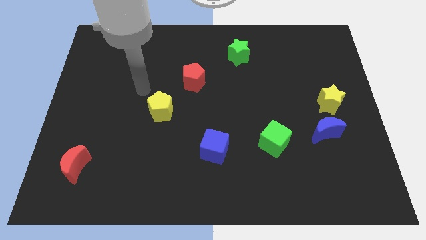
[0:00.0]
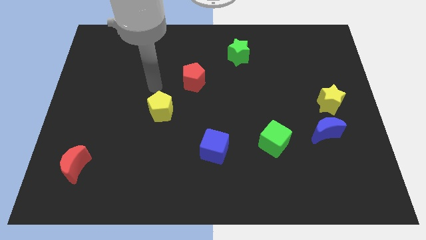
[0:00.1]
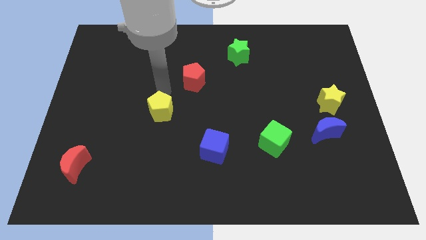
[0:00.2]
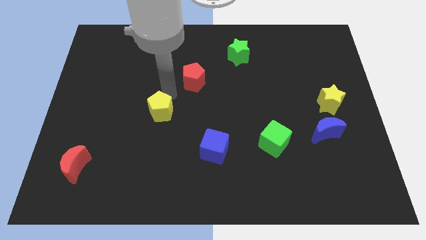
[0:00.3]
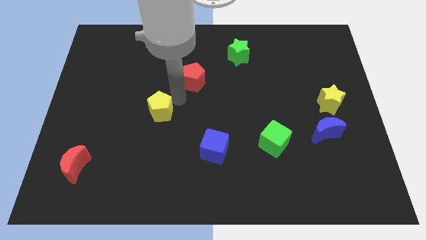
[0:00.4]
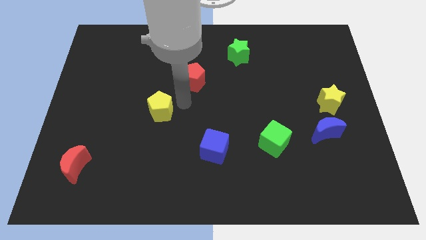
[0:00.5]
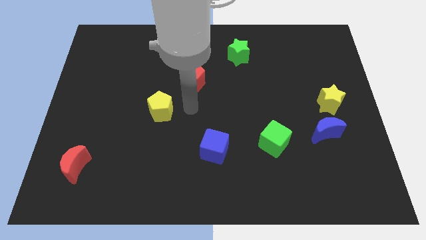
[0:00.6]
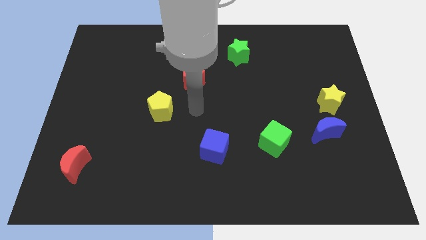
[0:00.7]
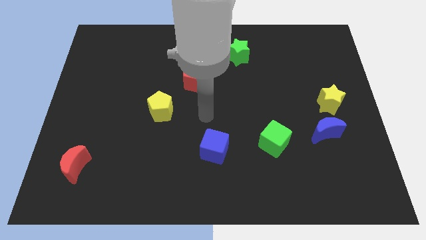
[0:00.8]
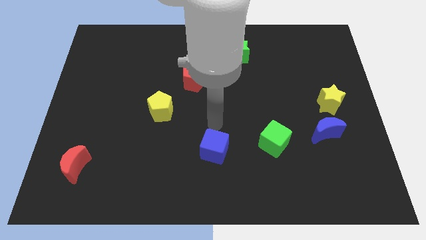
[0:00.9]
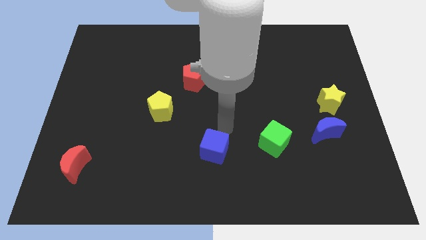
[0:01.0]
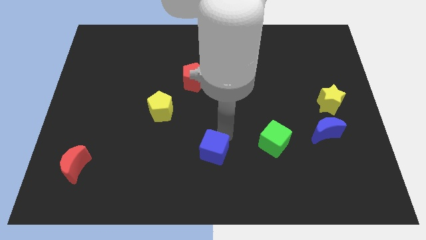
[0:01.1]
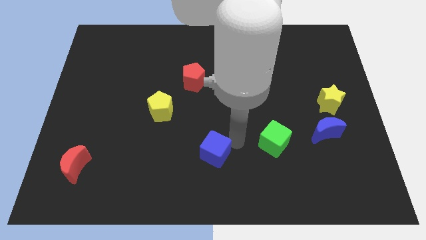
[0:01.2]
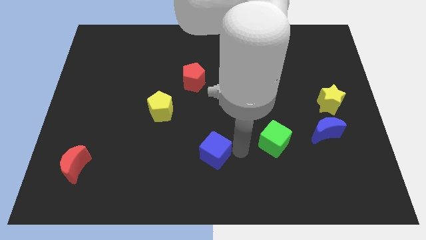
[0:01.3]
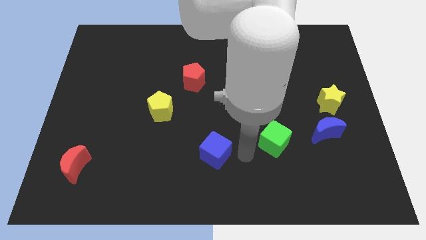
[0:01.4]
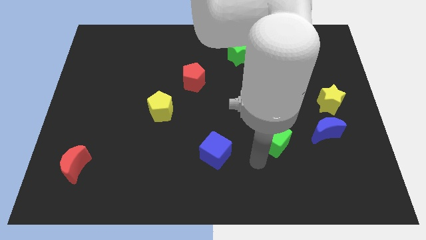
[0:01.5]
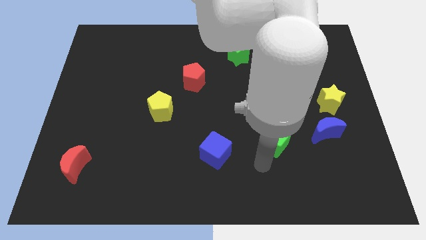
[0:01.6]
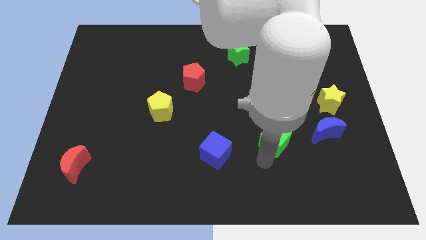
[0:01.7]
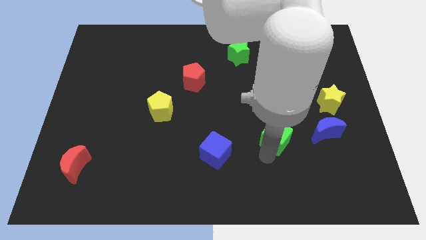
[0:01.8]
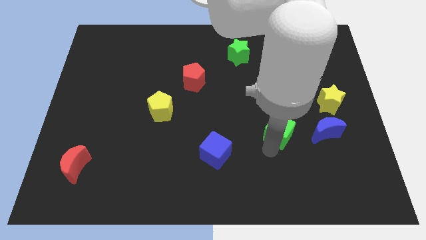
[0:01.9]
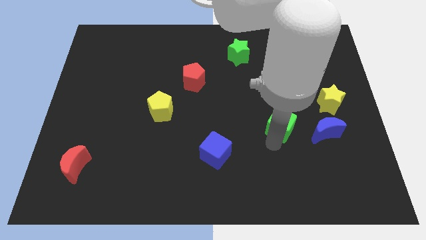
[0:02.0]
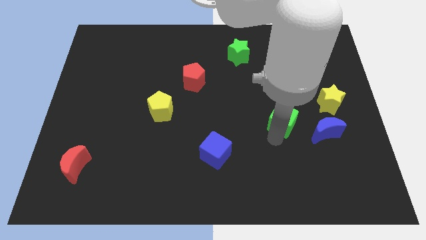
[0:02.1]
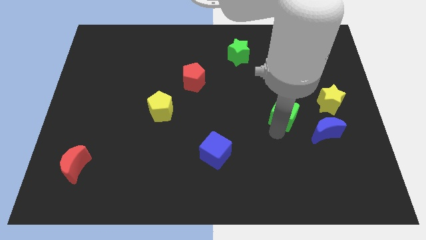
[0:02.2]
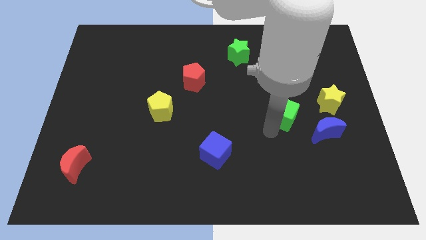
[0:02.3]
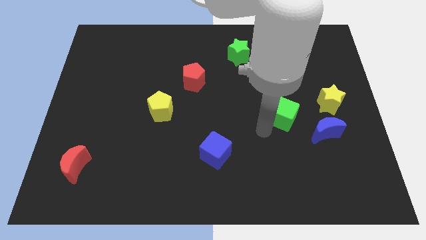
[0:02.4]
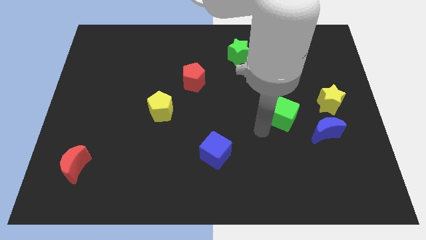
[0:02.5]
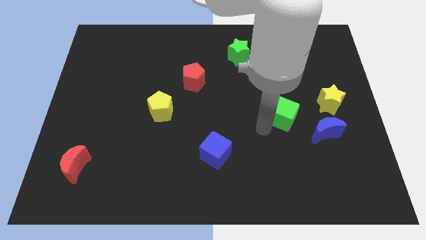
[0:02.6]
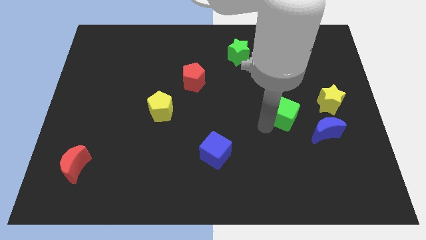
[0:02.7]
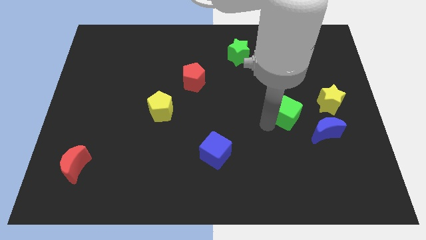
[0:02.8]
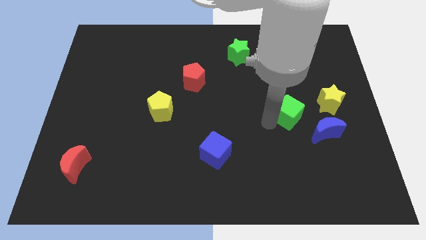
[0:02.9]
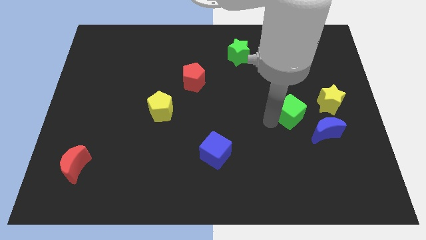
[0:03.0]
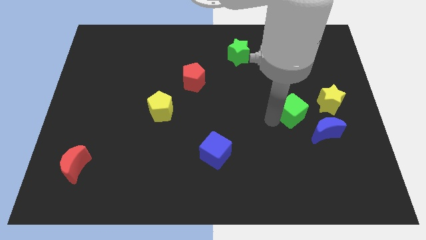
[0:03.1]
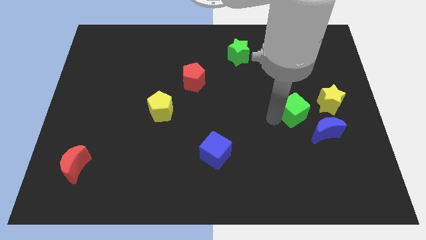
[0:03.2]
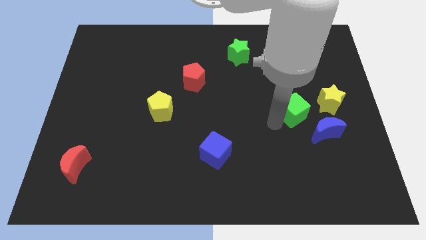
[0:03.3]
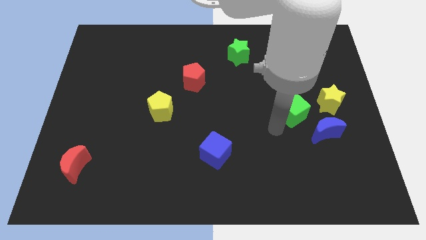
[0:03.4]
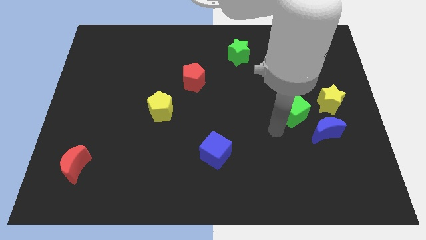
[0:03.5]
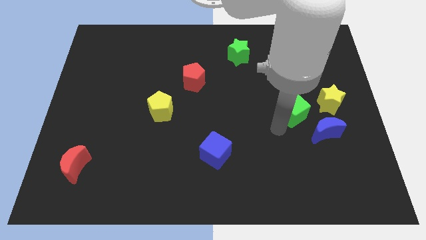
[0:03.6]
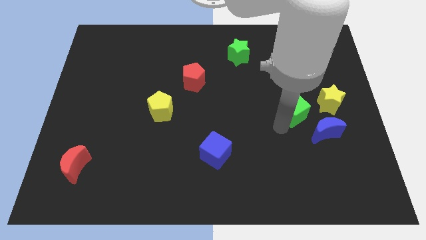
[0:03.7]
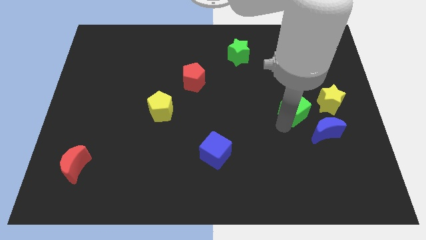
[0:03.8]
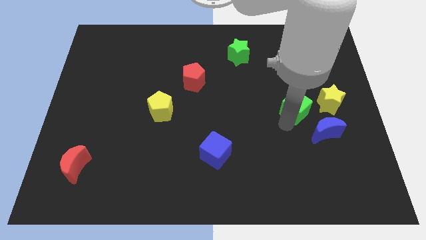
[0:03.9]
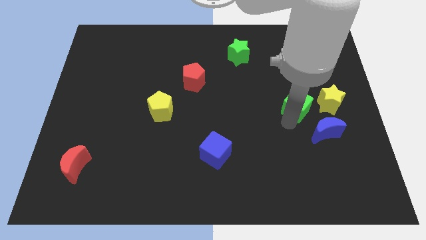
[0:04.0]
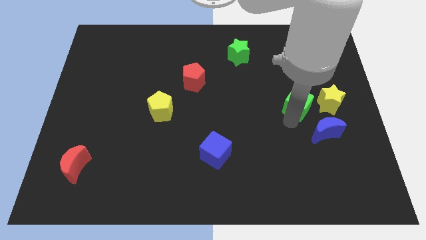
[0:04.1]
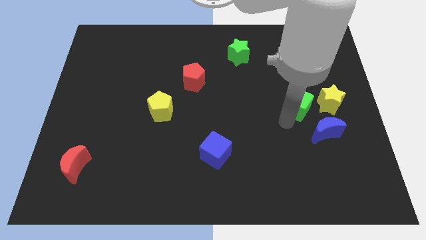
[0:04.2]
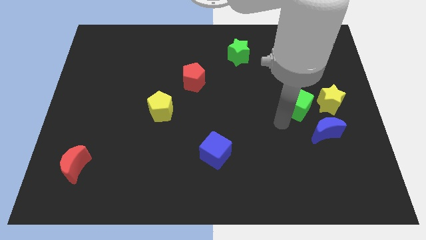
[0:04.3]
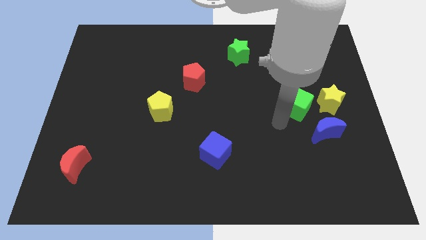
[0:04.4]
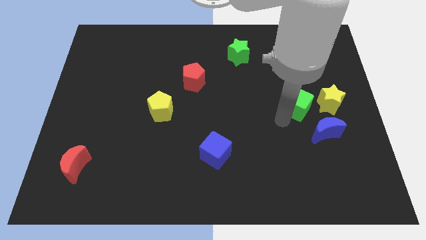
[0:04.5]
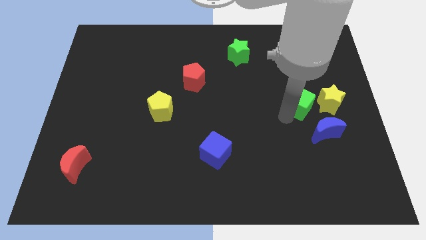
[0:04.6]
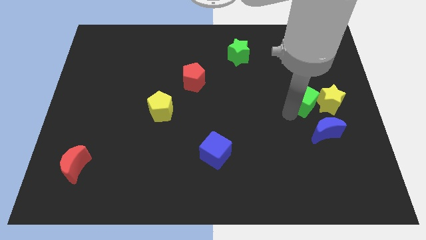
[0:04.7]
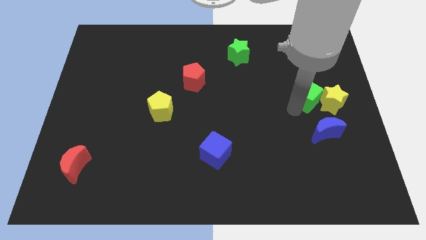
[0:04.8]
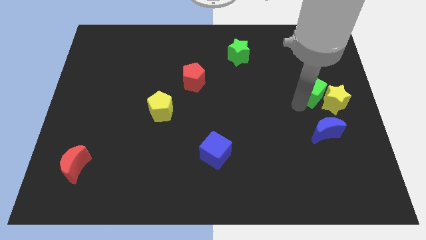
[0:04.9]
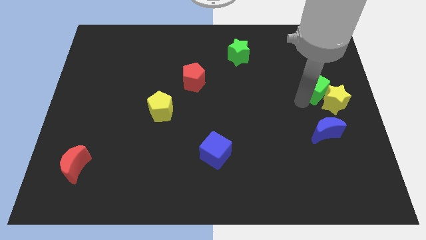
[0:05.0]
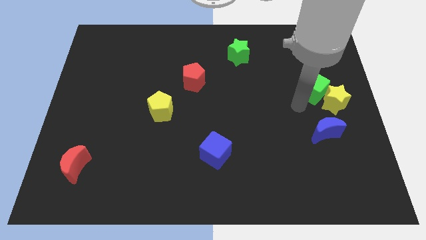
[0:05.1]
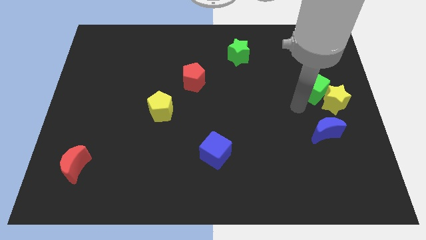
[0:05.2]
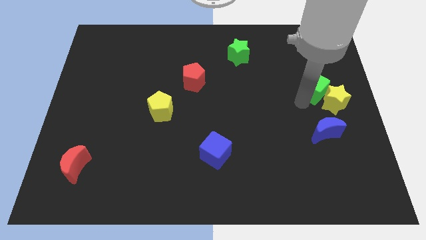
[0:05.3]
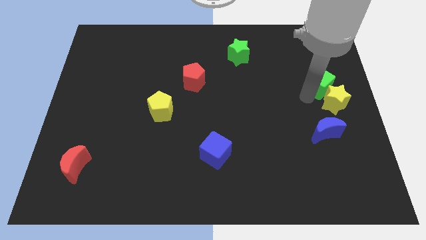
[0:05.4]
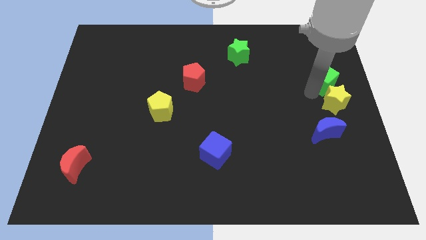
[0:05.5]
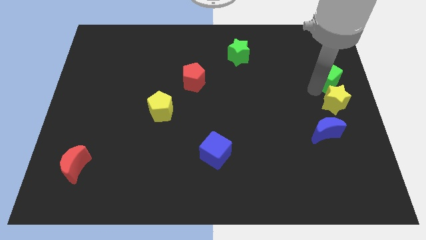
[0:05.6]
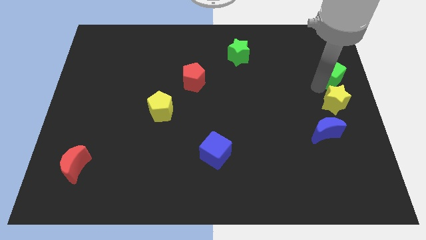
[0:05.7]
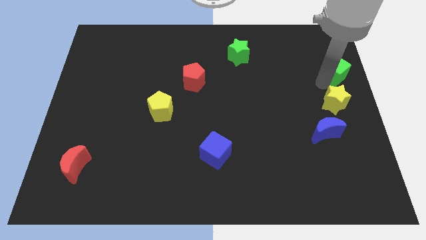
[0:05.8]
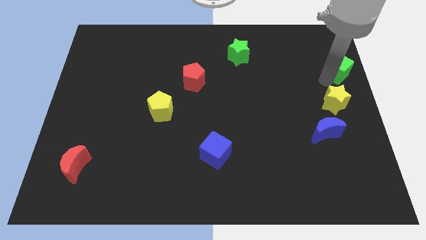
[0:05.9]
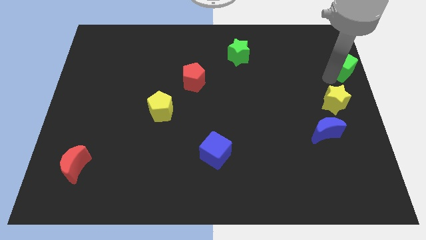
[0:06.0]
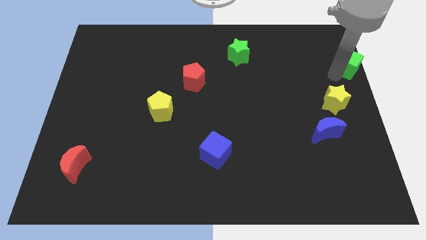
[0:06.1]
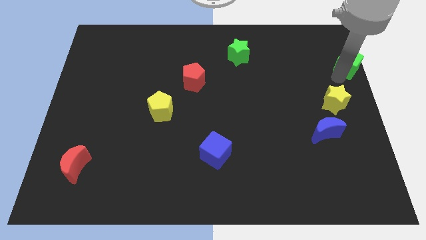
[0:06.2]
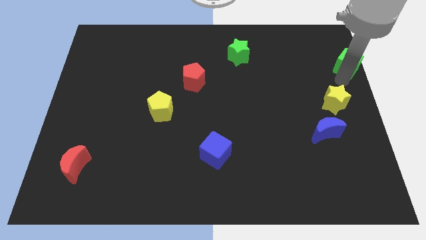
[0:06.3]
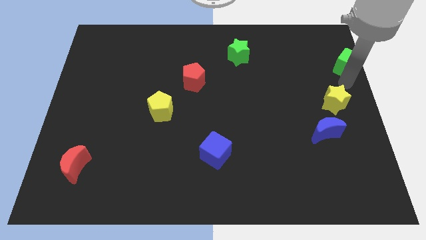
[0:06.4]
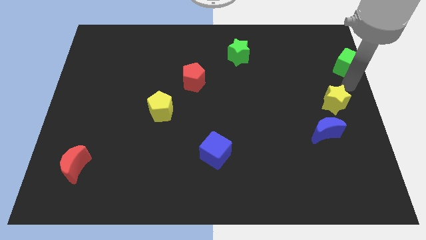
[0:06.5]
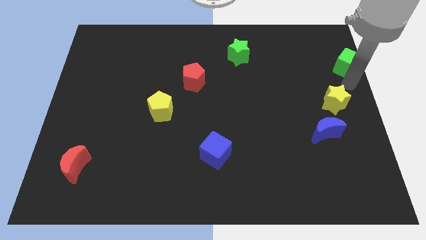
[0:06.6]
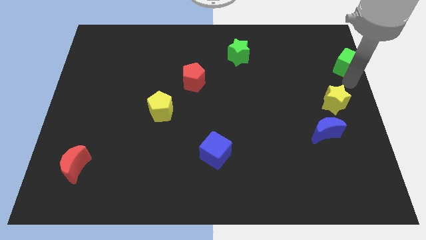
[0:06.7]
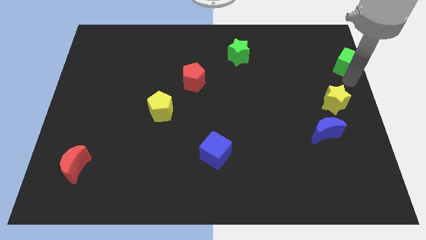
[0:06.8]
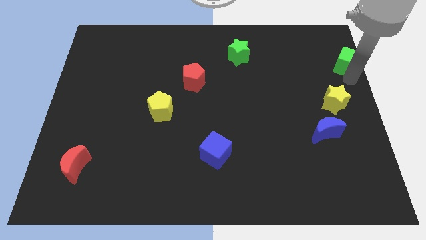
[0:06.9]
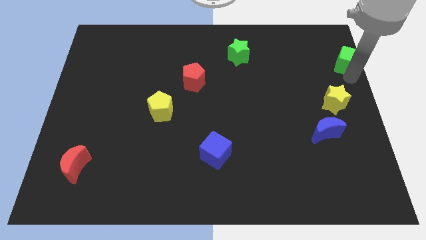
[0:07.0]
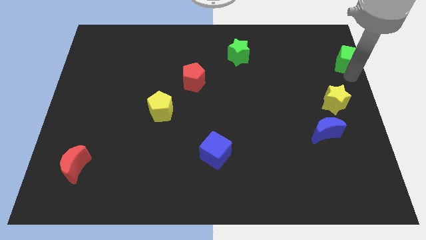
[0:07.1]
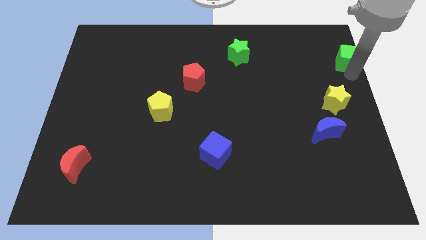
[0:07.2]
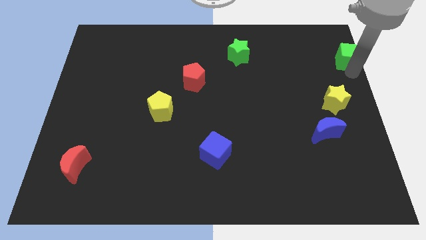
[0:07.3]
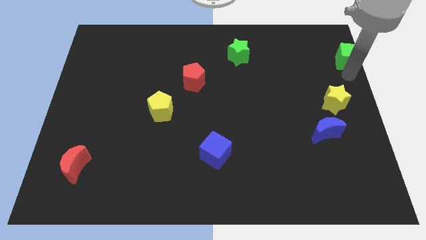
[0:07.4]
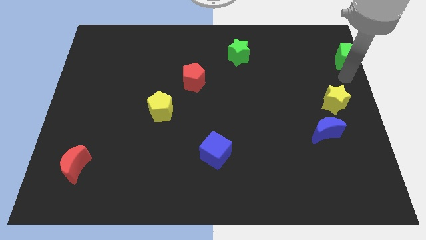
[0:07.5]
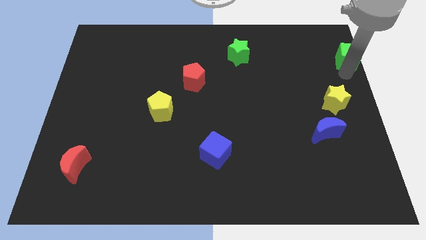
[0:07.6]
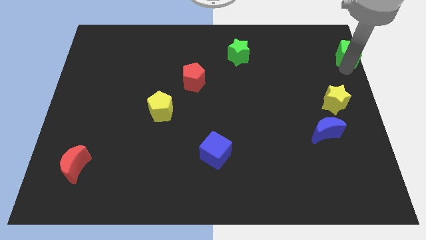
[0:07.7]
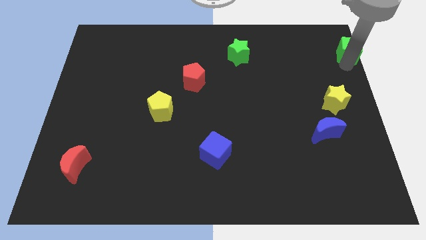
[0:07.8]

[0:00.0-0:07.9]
move the green cube to the upper right corner
